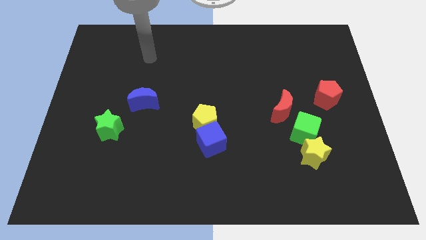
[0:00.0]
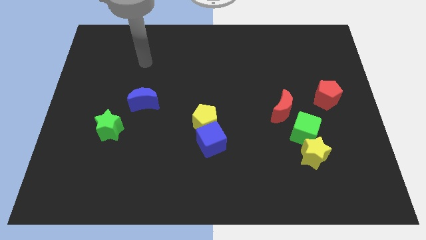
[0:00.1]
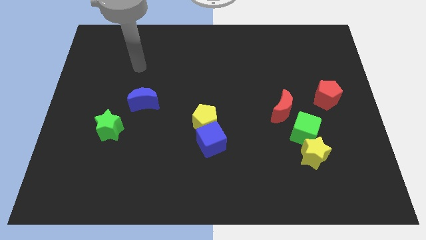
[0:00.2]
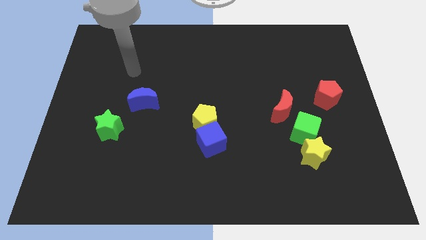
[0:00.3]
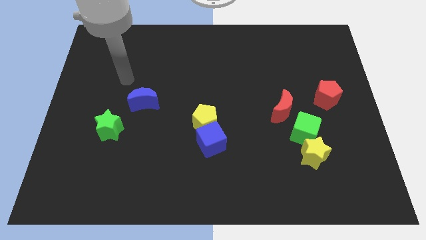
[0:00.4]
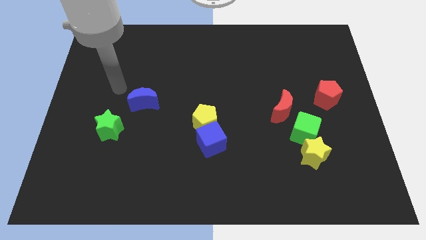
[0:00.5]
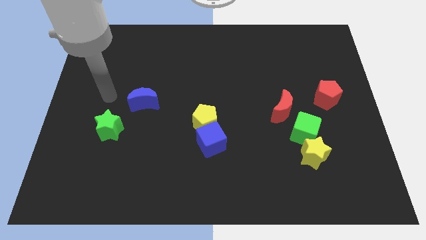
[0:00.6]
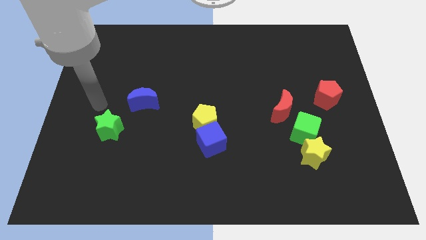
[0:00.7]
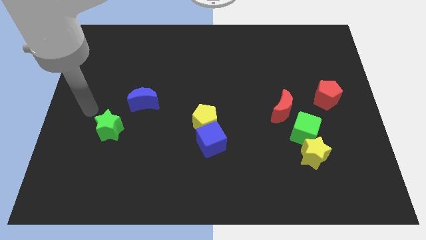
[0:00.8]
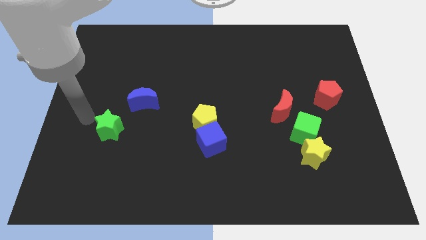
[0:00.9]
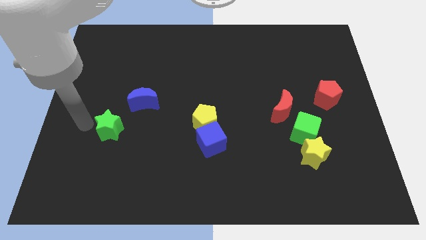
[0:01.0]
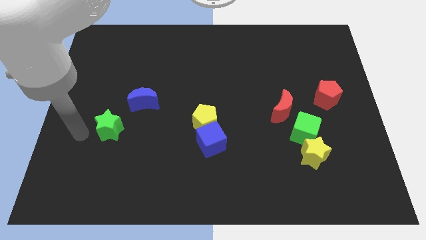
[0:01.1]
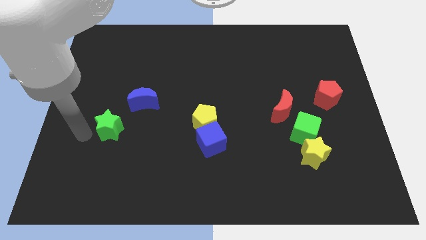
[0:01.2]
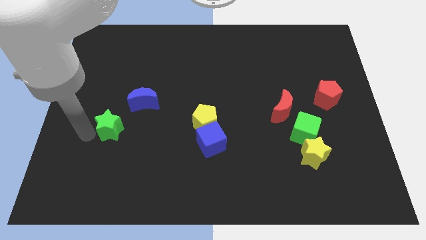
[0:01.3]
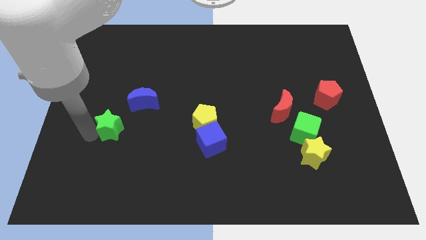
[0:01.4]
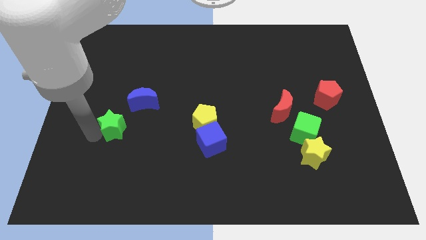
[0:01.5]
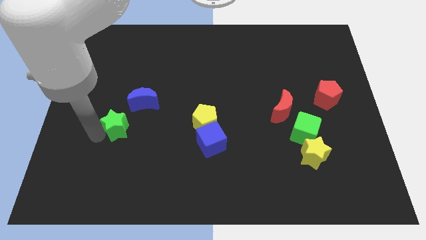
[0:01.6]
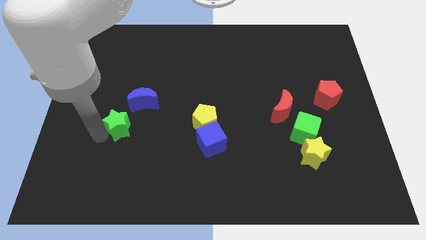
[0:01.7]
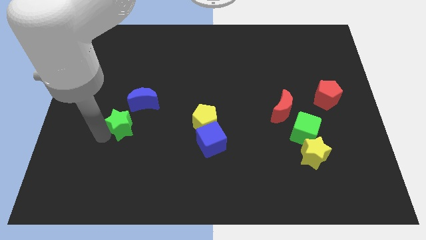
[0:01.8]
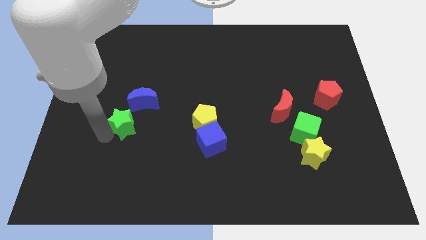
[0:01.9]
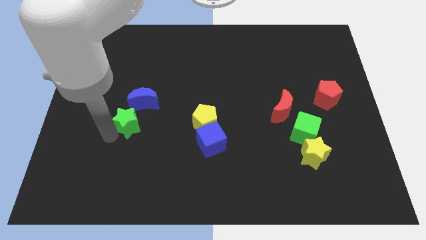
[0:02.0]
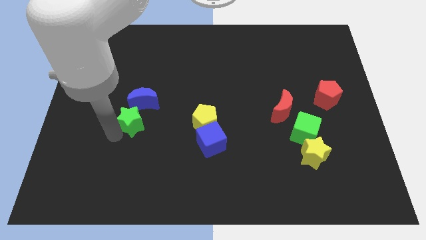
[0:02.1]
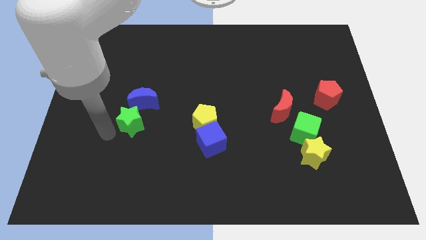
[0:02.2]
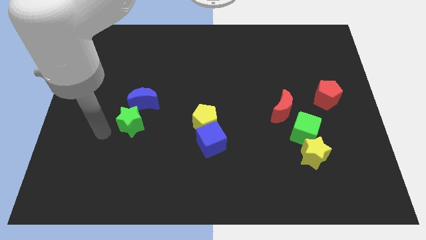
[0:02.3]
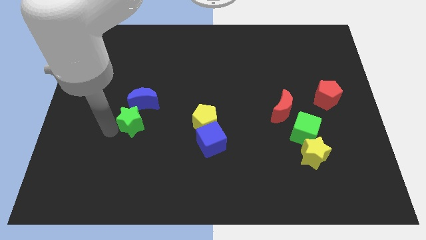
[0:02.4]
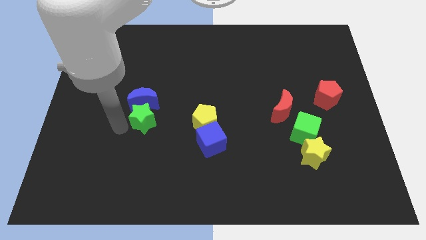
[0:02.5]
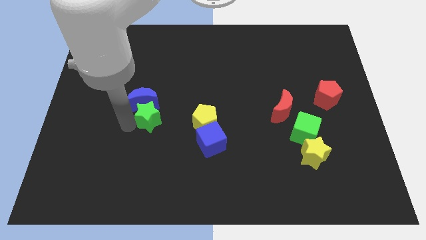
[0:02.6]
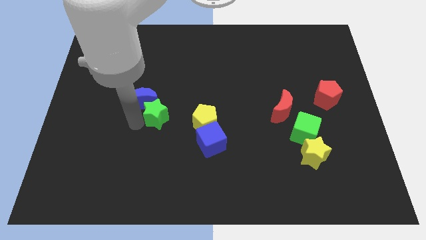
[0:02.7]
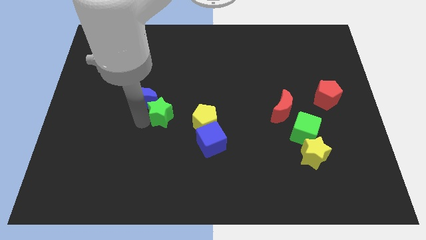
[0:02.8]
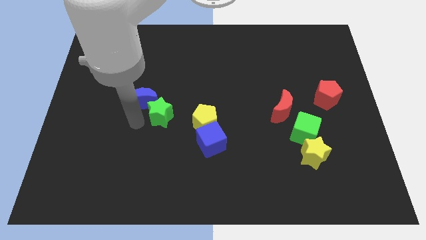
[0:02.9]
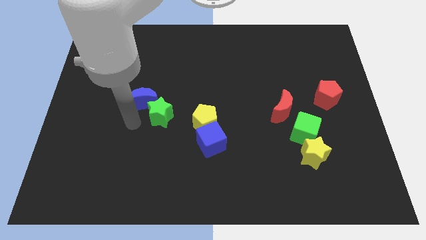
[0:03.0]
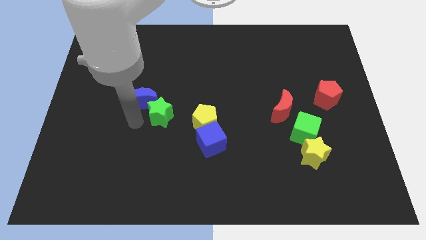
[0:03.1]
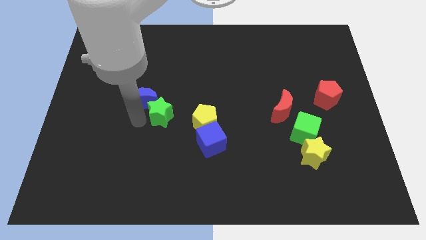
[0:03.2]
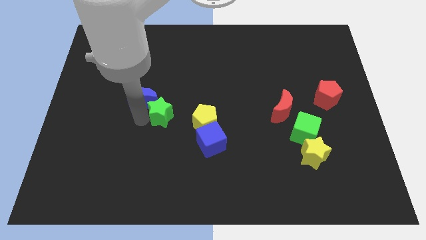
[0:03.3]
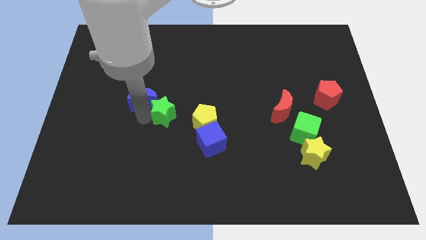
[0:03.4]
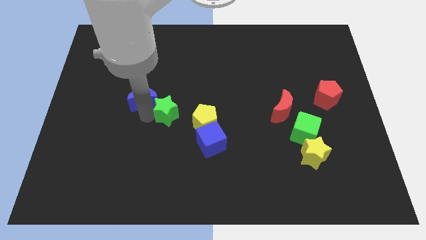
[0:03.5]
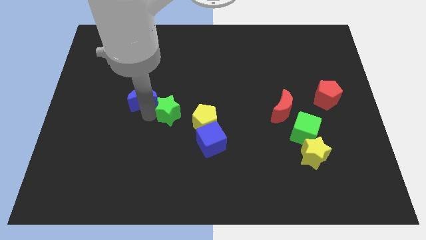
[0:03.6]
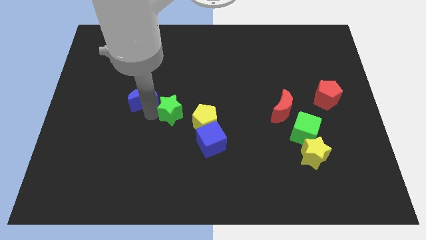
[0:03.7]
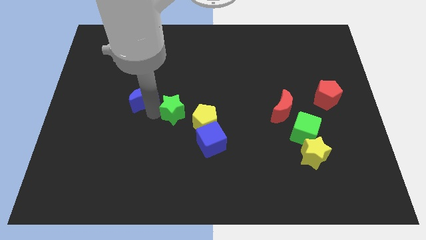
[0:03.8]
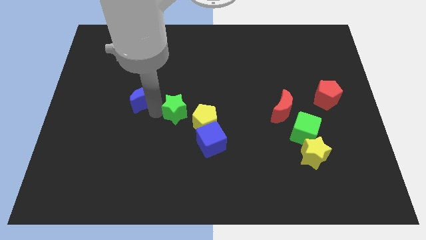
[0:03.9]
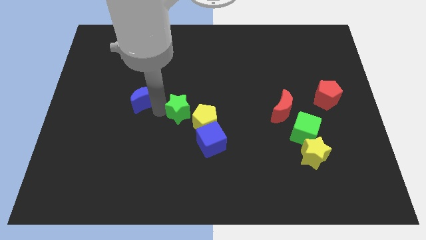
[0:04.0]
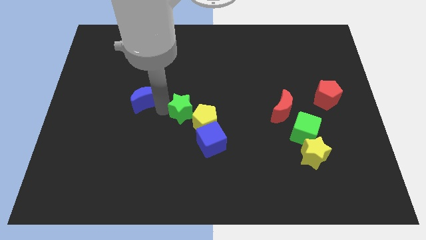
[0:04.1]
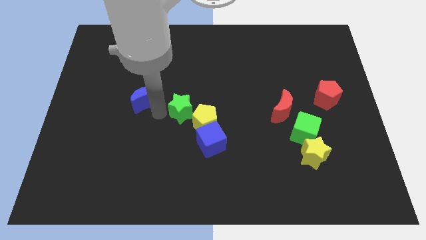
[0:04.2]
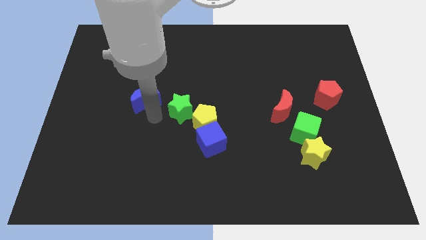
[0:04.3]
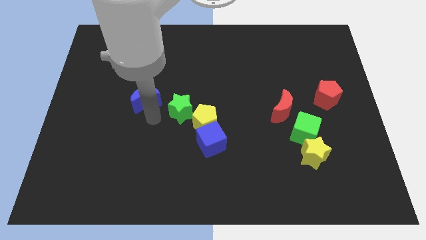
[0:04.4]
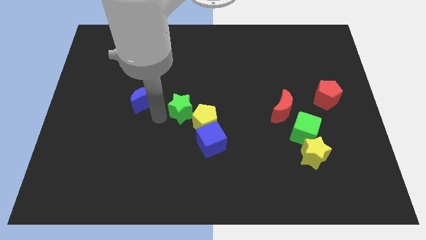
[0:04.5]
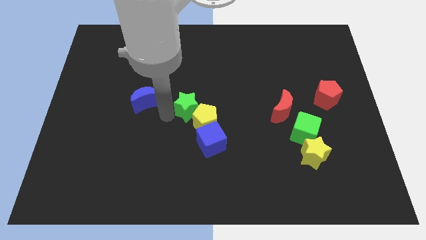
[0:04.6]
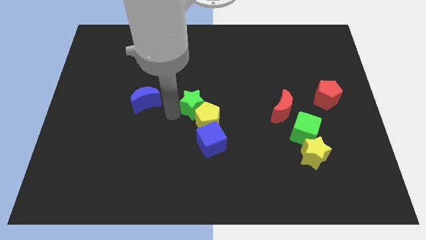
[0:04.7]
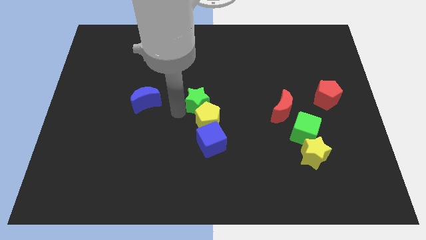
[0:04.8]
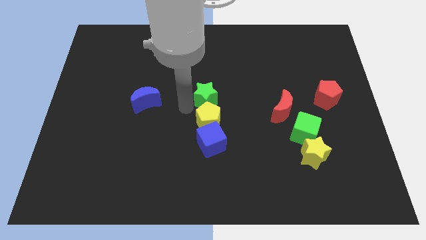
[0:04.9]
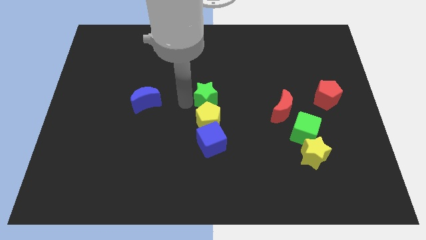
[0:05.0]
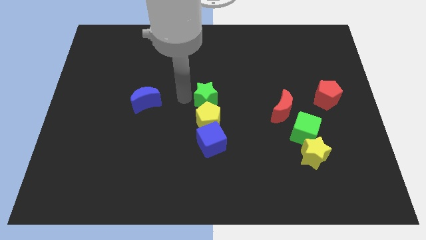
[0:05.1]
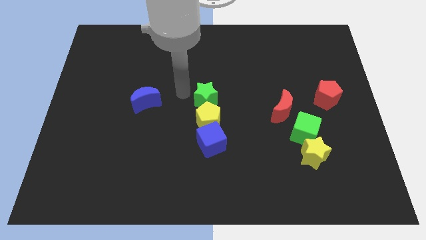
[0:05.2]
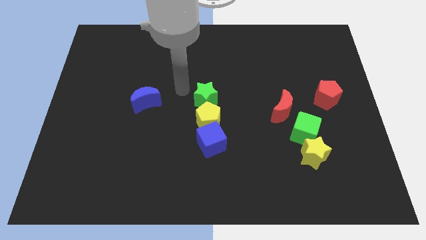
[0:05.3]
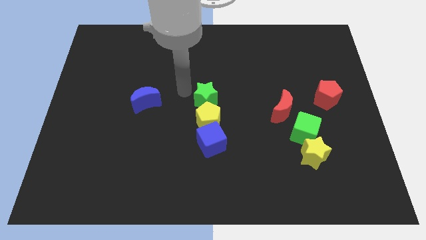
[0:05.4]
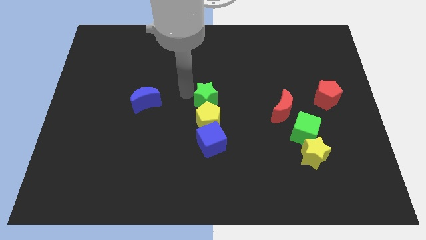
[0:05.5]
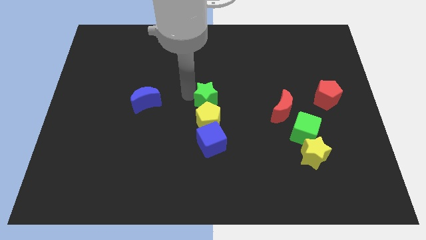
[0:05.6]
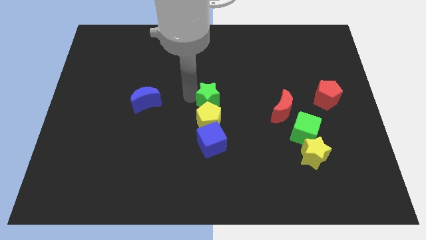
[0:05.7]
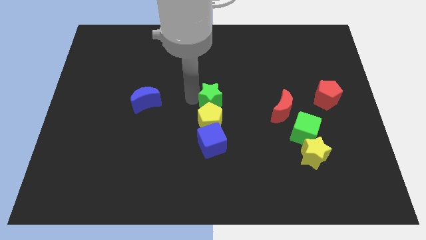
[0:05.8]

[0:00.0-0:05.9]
push the green star right

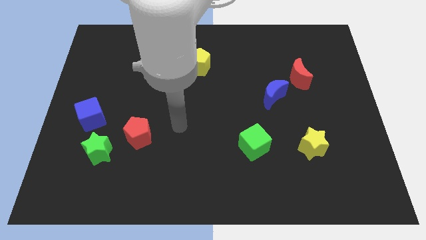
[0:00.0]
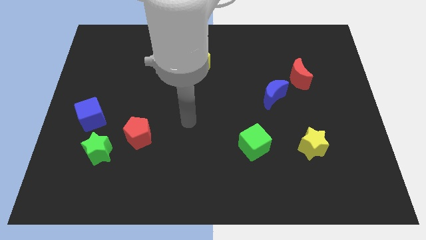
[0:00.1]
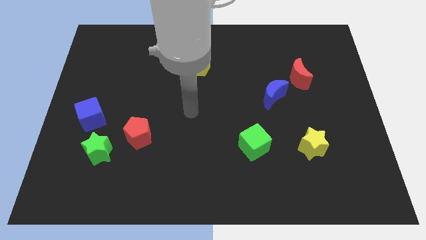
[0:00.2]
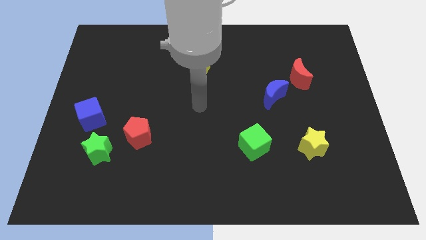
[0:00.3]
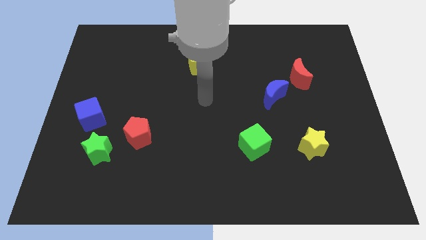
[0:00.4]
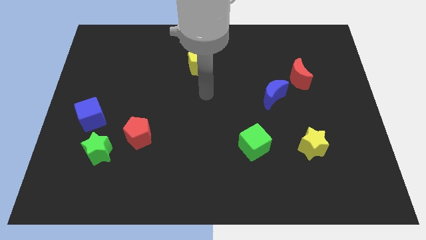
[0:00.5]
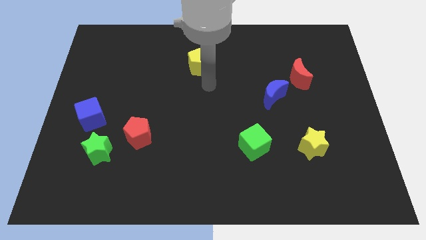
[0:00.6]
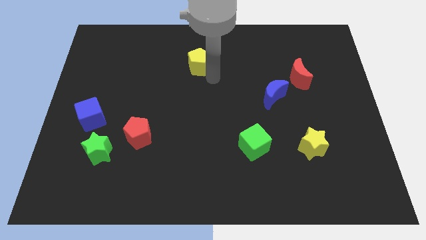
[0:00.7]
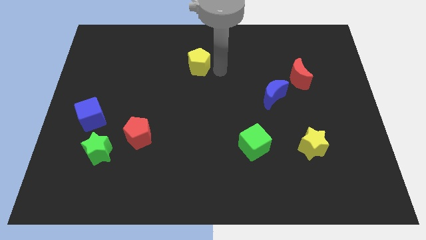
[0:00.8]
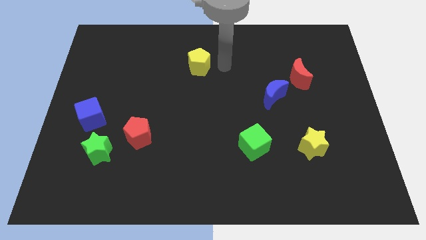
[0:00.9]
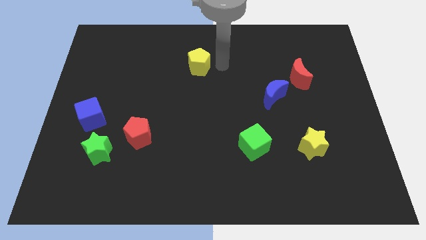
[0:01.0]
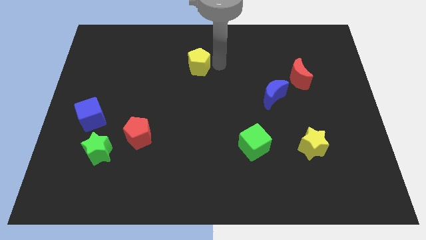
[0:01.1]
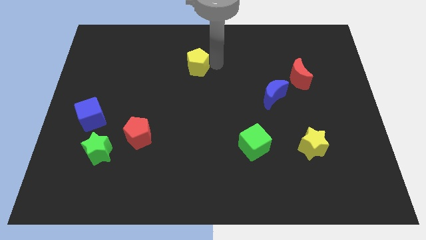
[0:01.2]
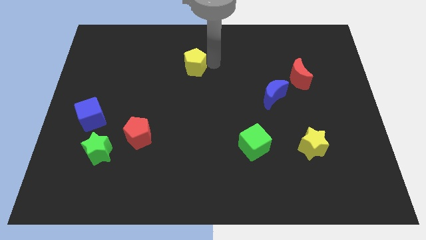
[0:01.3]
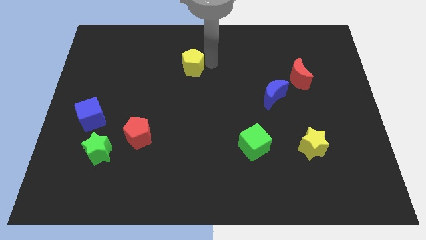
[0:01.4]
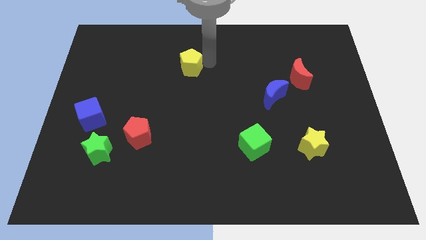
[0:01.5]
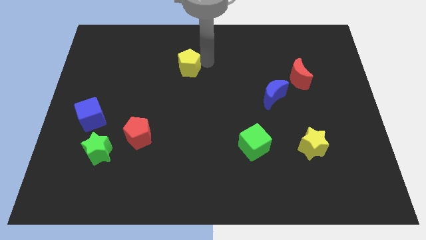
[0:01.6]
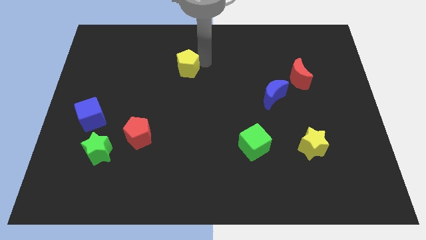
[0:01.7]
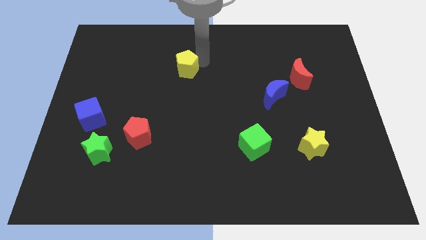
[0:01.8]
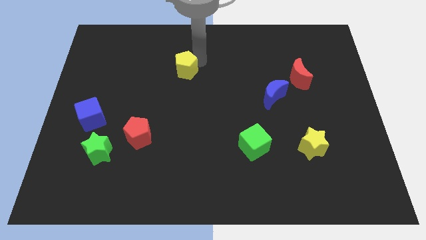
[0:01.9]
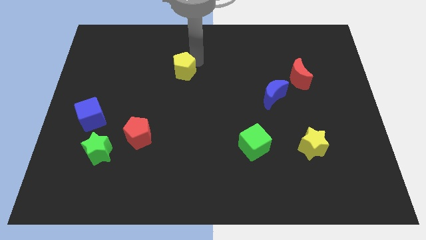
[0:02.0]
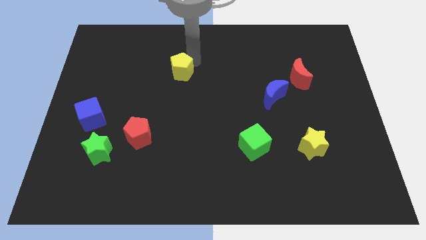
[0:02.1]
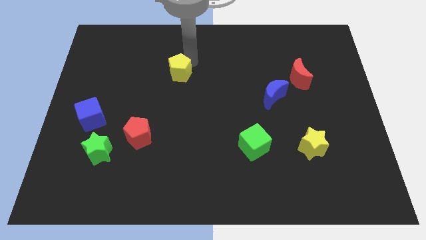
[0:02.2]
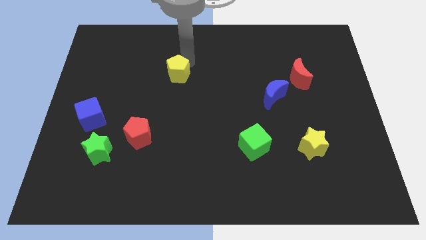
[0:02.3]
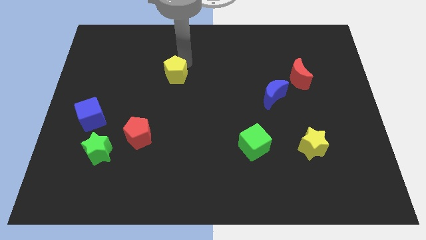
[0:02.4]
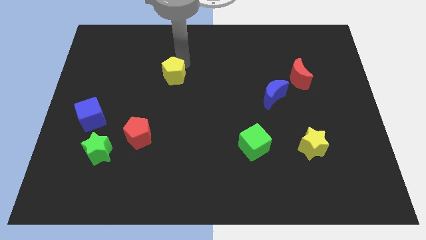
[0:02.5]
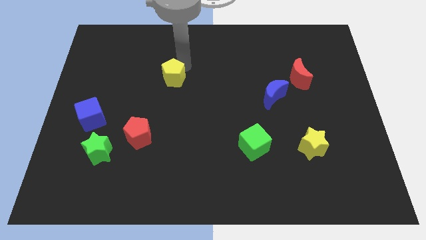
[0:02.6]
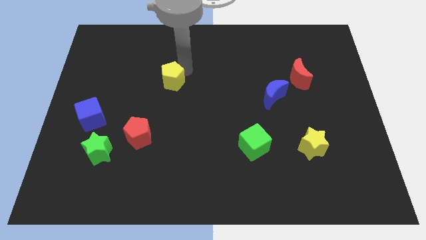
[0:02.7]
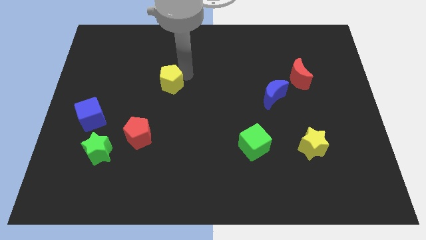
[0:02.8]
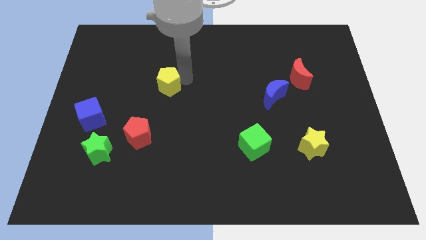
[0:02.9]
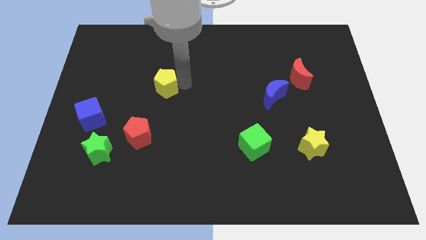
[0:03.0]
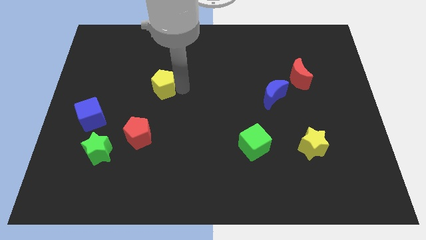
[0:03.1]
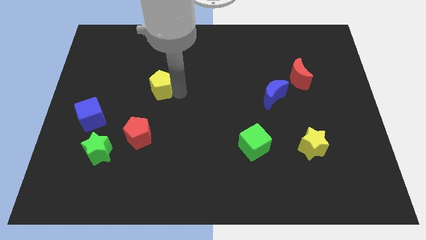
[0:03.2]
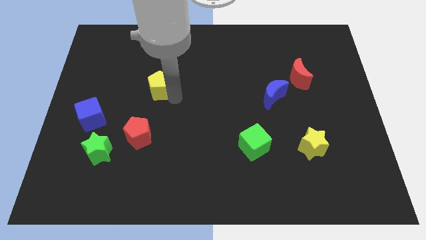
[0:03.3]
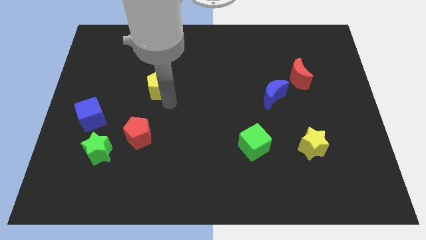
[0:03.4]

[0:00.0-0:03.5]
slide the yellow pentagon to the left a little bit
